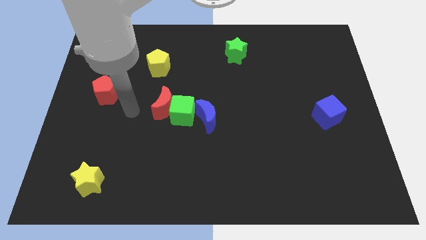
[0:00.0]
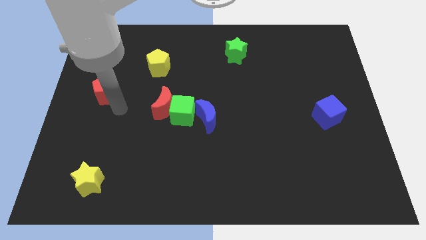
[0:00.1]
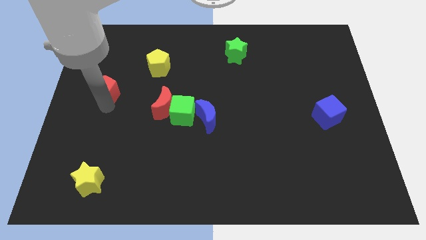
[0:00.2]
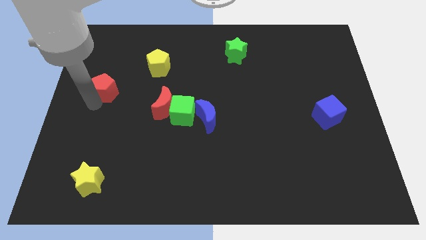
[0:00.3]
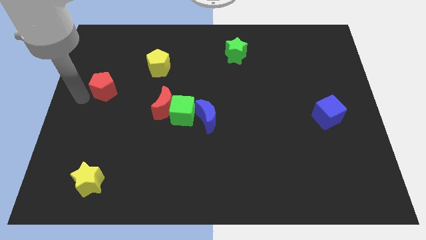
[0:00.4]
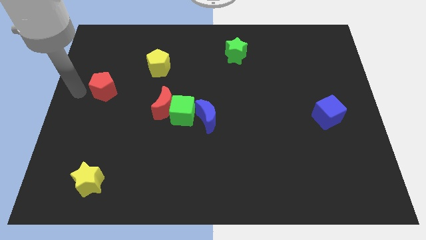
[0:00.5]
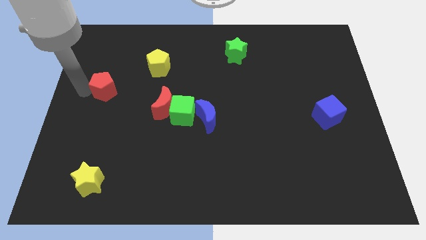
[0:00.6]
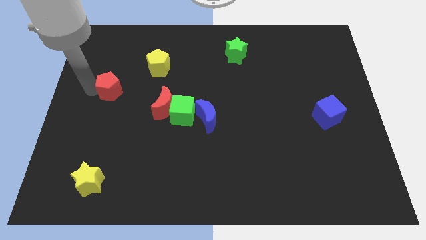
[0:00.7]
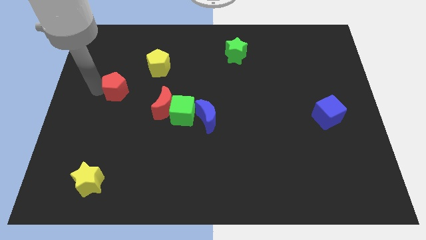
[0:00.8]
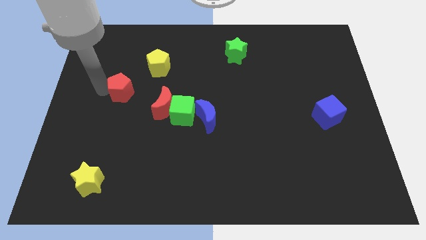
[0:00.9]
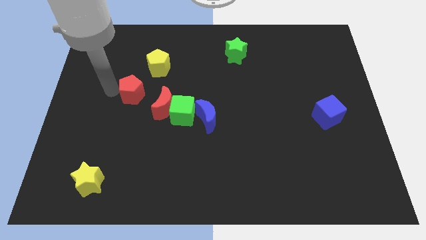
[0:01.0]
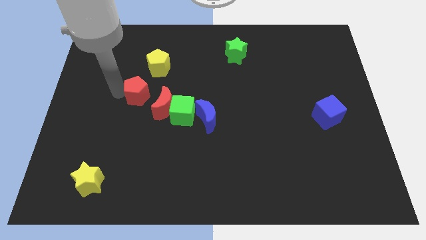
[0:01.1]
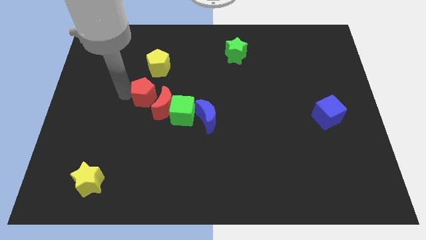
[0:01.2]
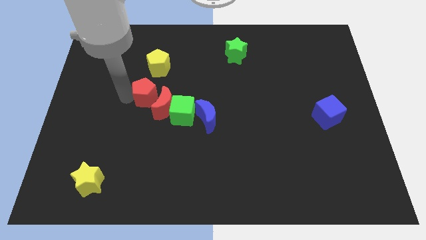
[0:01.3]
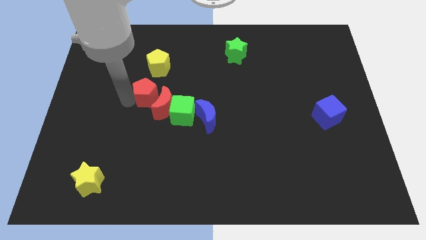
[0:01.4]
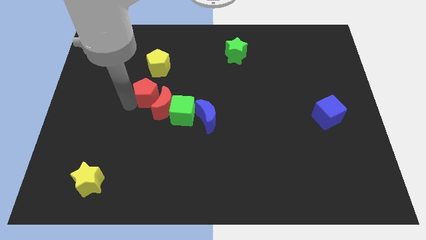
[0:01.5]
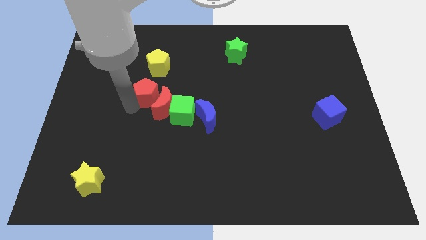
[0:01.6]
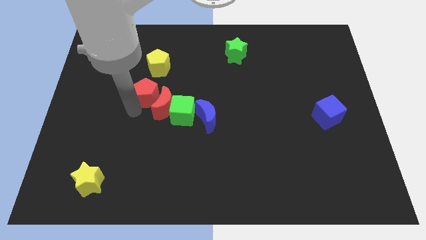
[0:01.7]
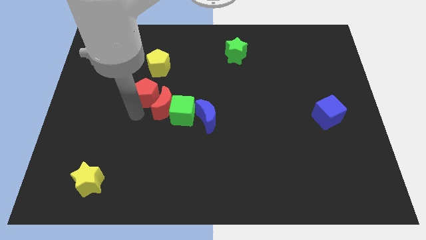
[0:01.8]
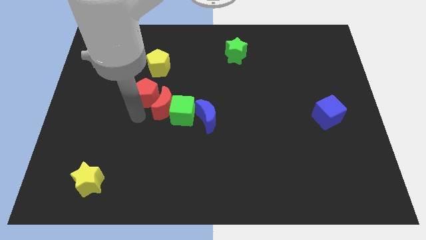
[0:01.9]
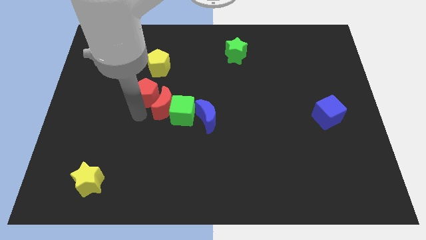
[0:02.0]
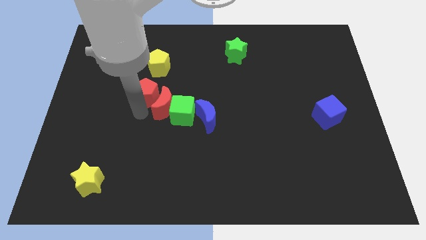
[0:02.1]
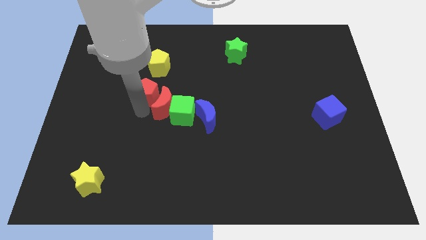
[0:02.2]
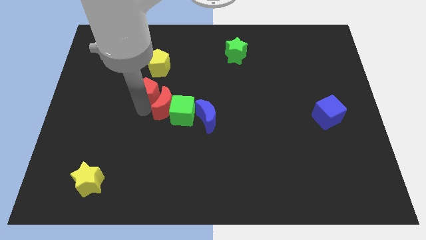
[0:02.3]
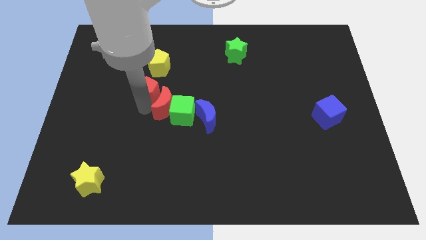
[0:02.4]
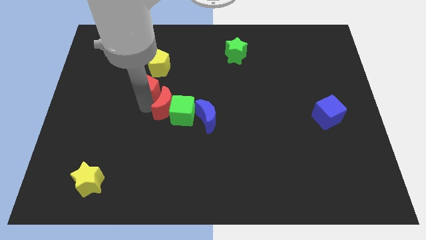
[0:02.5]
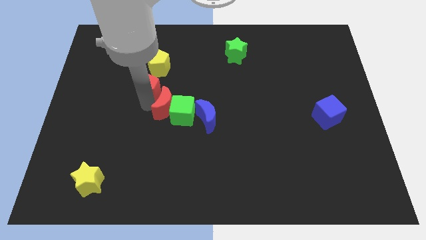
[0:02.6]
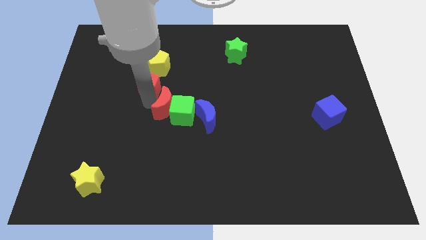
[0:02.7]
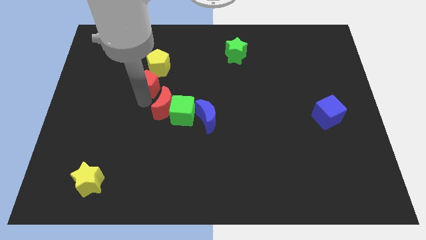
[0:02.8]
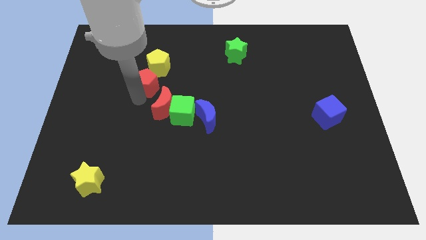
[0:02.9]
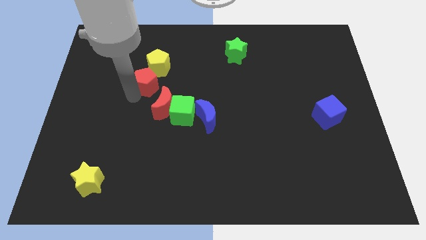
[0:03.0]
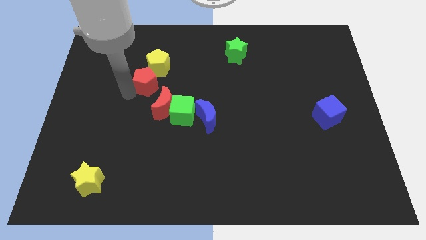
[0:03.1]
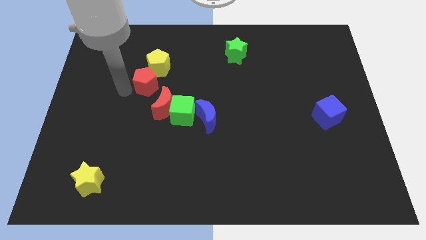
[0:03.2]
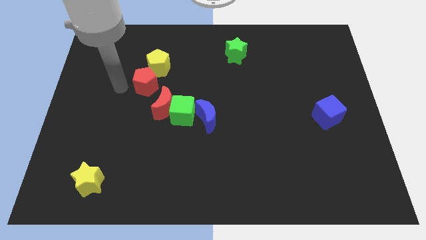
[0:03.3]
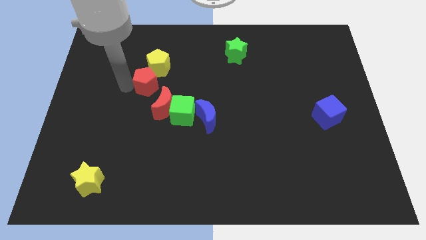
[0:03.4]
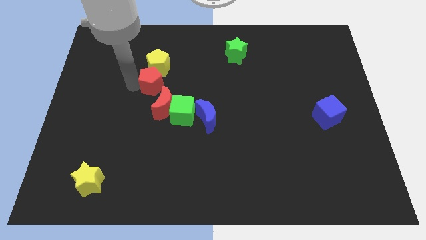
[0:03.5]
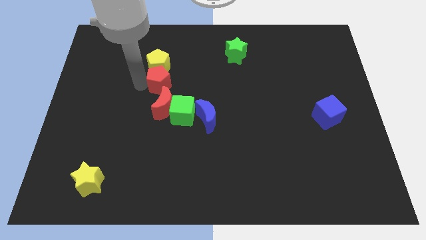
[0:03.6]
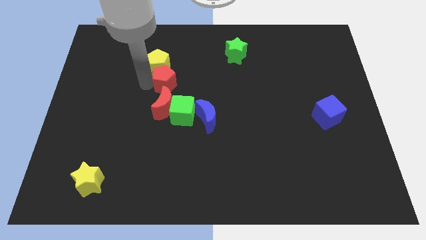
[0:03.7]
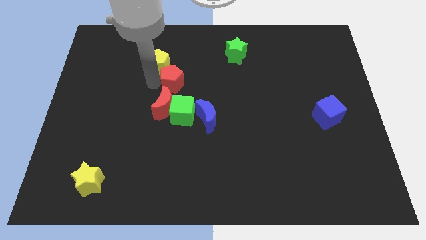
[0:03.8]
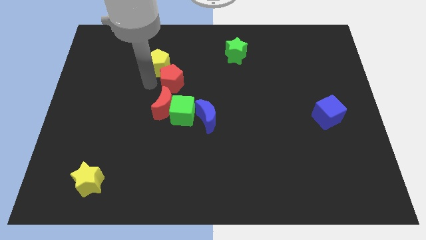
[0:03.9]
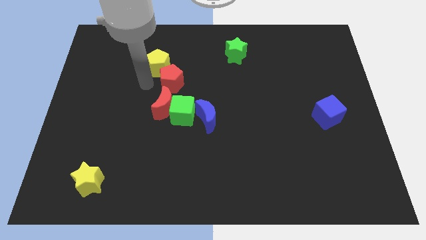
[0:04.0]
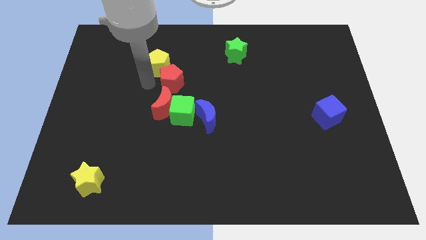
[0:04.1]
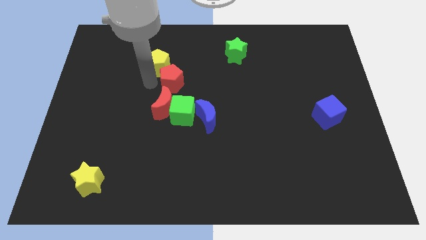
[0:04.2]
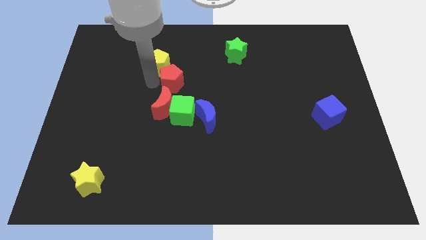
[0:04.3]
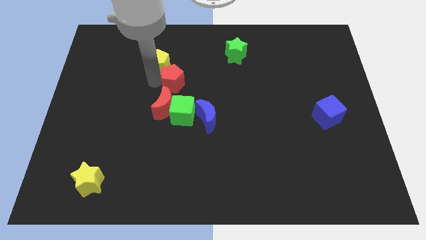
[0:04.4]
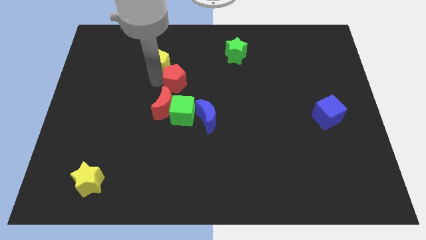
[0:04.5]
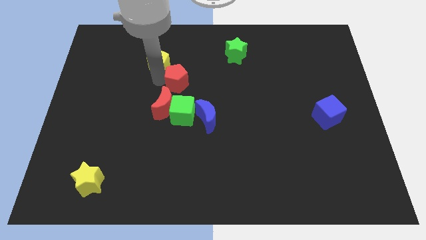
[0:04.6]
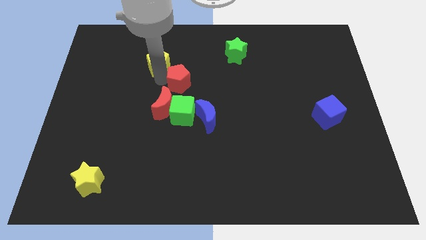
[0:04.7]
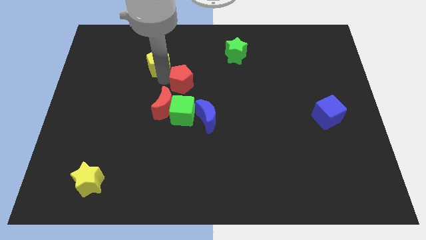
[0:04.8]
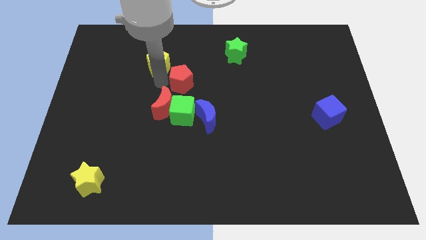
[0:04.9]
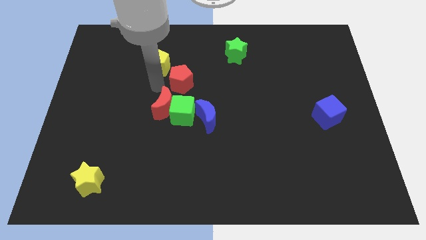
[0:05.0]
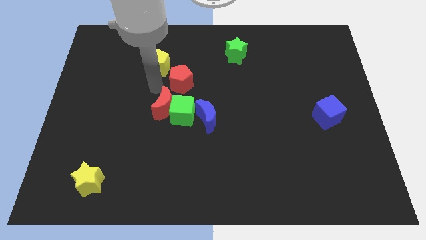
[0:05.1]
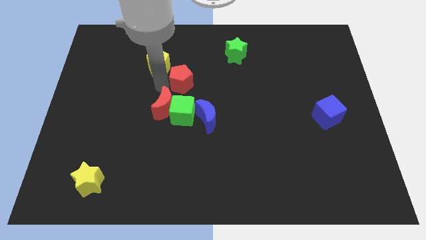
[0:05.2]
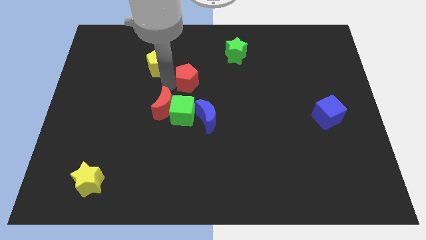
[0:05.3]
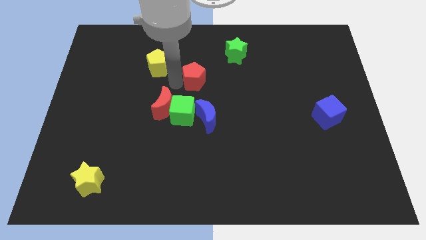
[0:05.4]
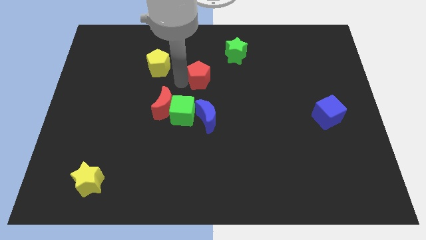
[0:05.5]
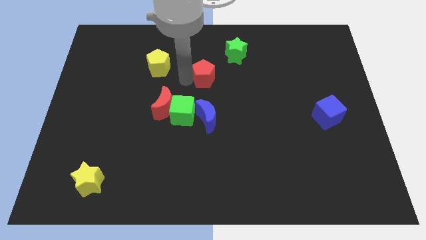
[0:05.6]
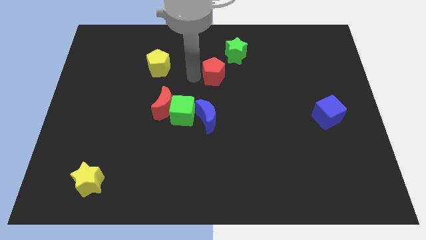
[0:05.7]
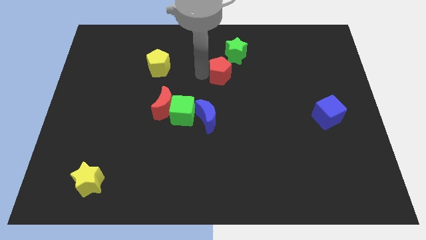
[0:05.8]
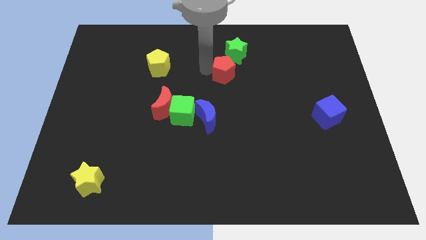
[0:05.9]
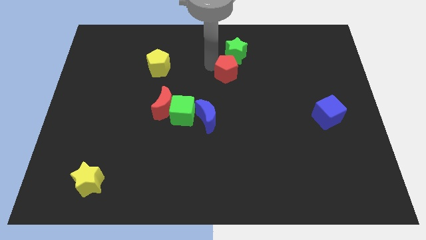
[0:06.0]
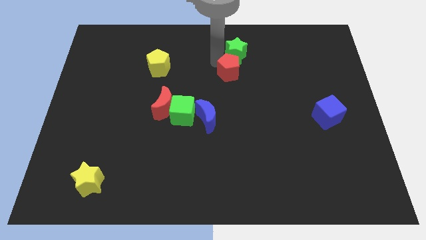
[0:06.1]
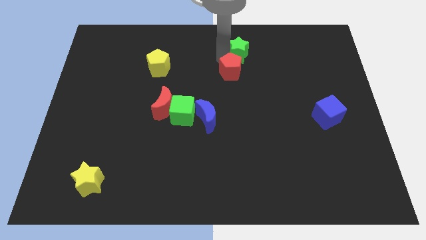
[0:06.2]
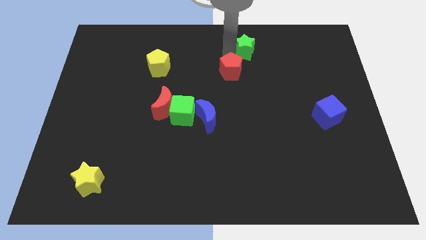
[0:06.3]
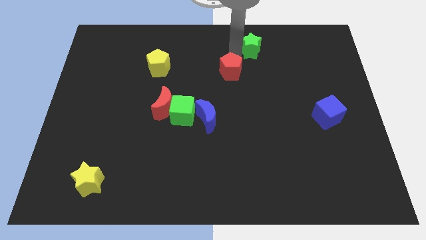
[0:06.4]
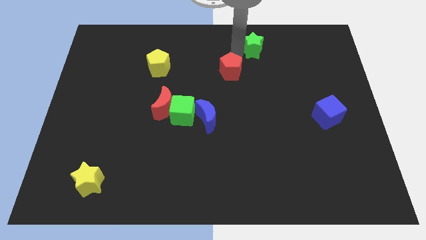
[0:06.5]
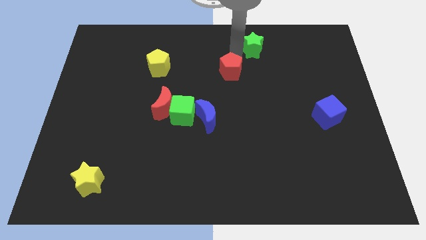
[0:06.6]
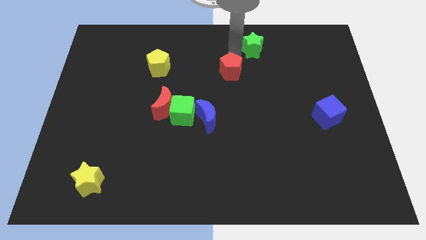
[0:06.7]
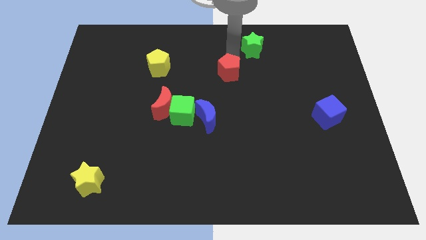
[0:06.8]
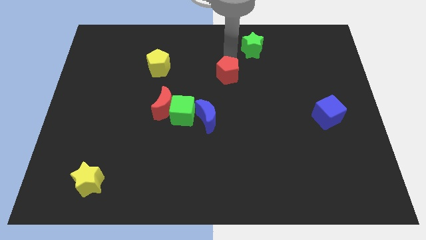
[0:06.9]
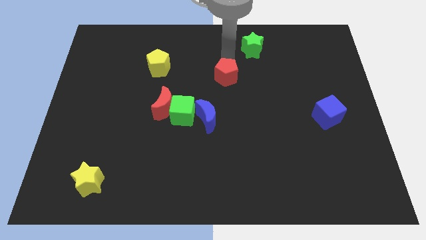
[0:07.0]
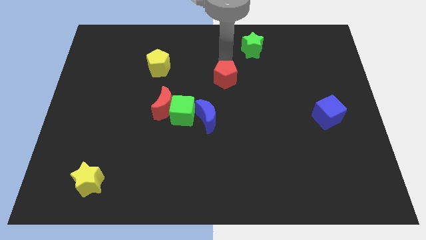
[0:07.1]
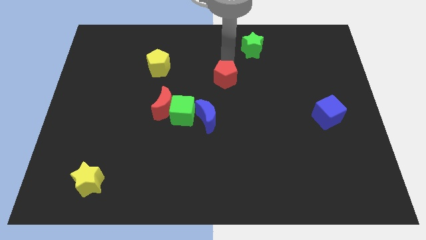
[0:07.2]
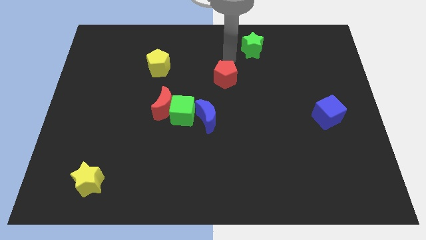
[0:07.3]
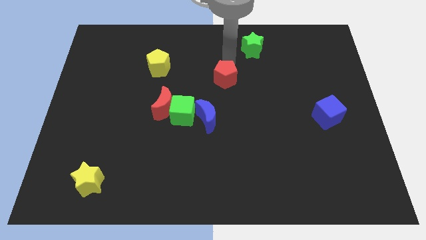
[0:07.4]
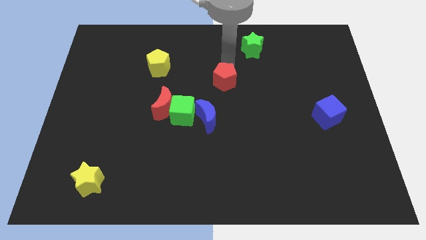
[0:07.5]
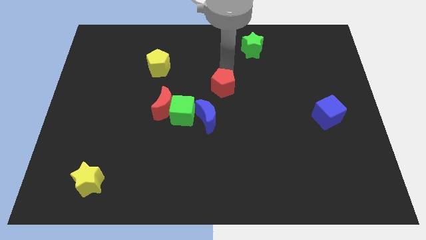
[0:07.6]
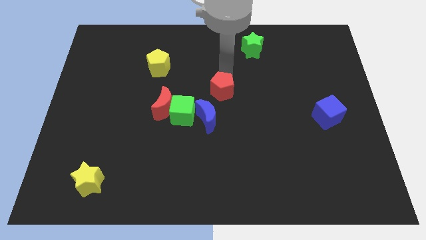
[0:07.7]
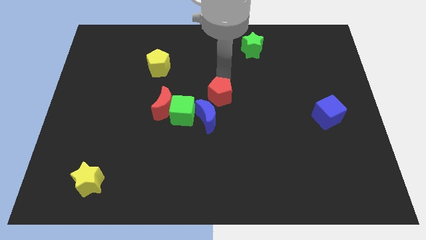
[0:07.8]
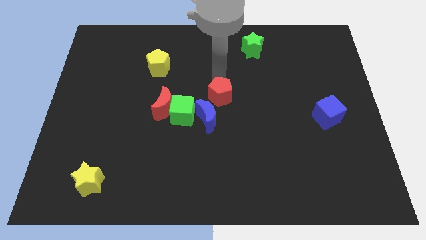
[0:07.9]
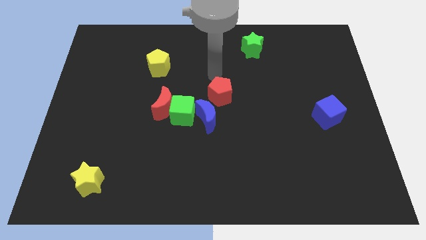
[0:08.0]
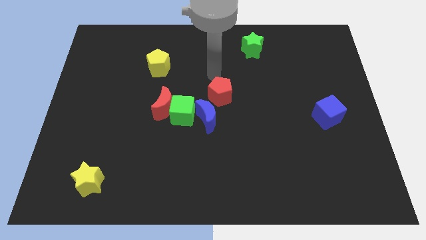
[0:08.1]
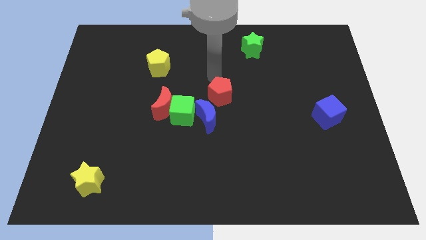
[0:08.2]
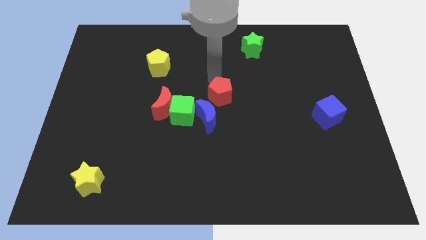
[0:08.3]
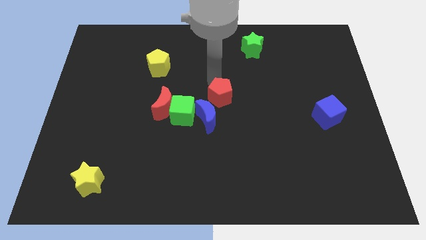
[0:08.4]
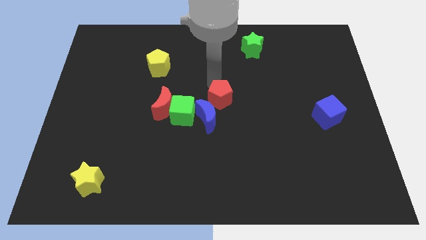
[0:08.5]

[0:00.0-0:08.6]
put the red pentagon to the right of the green cube
